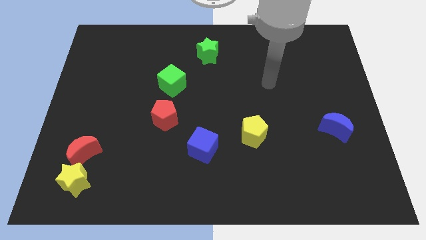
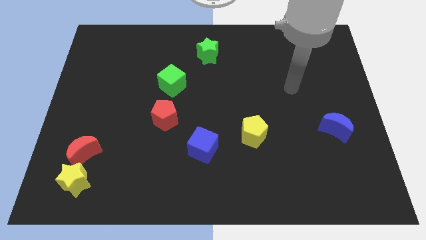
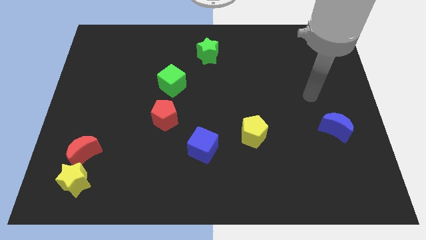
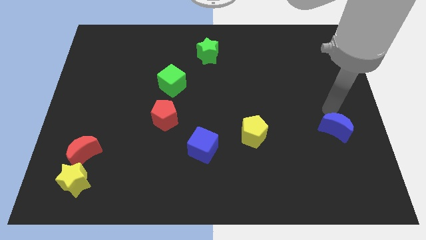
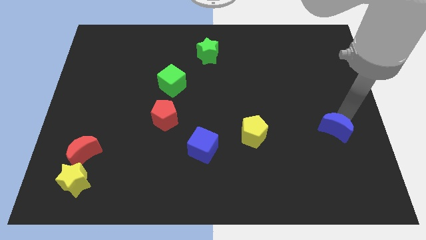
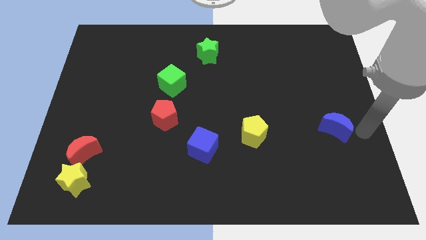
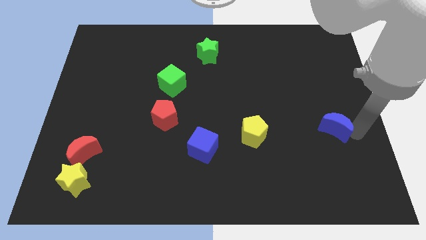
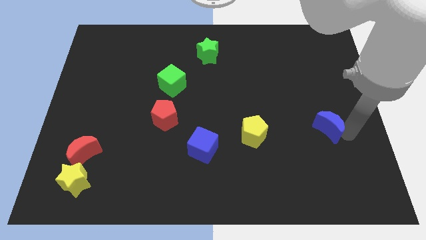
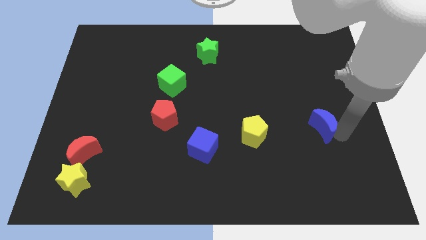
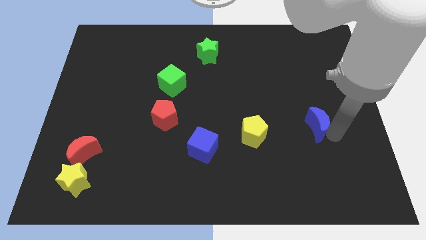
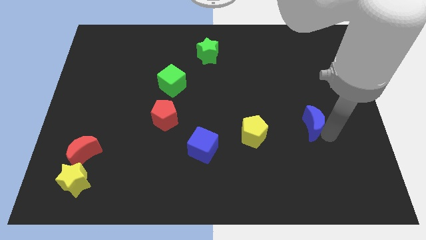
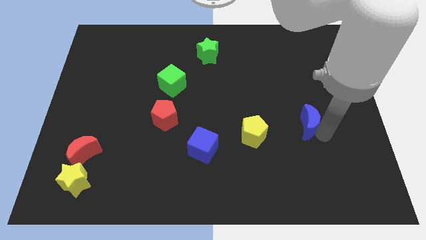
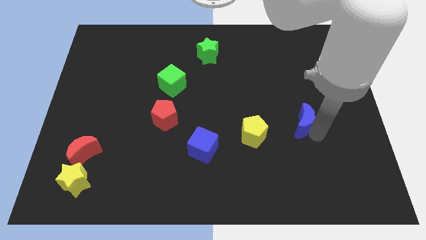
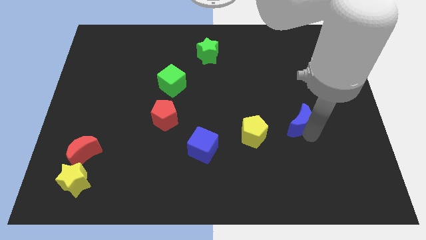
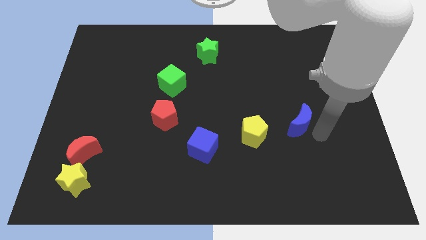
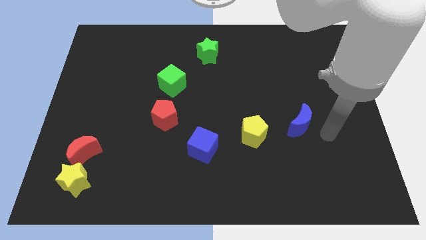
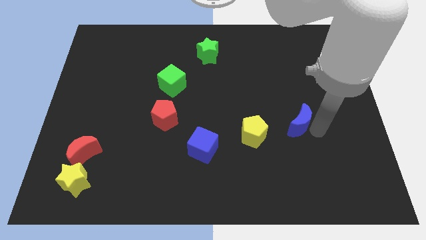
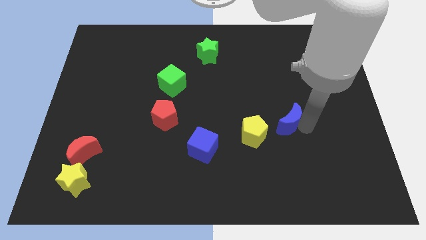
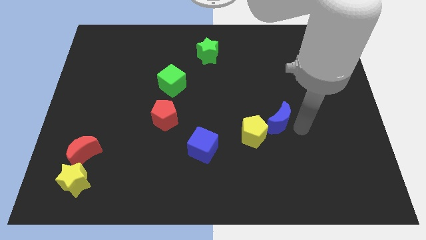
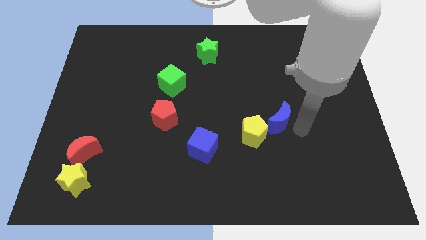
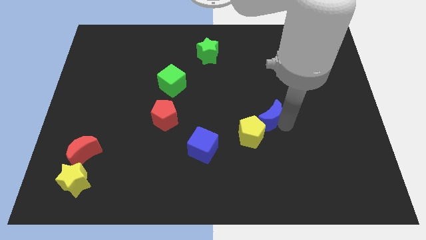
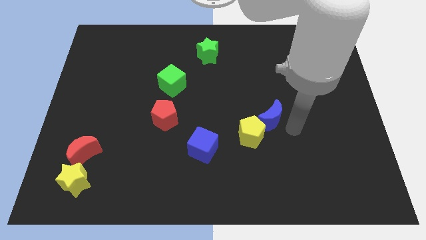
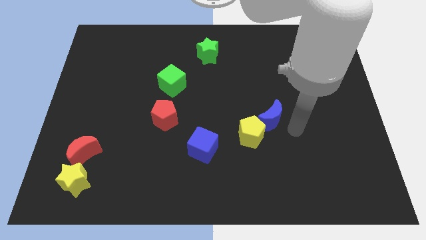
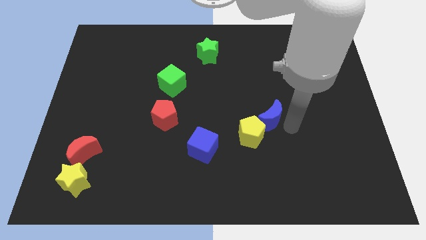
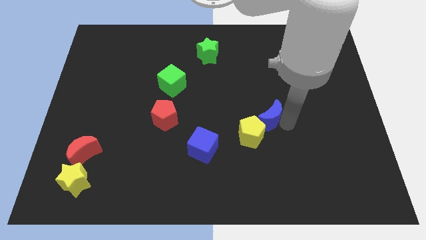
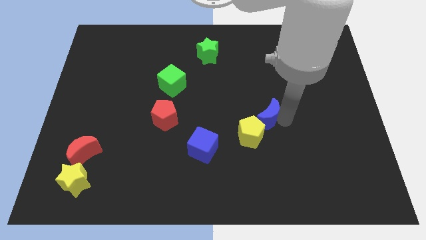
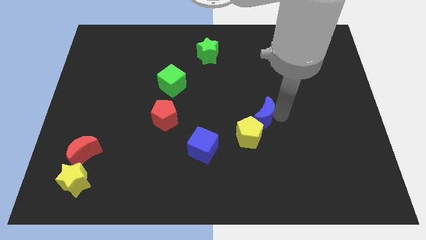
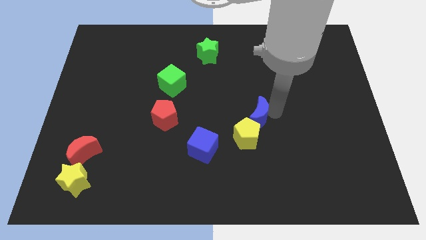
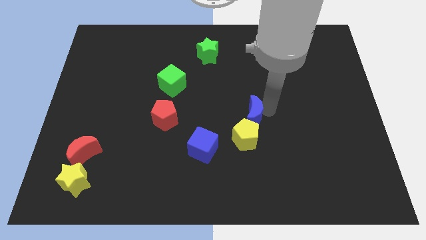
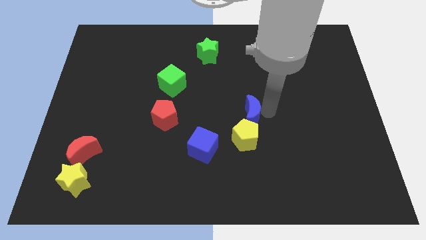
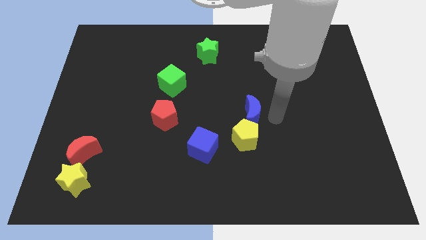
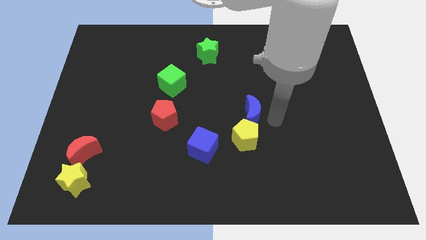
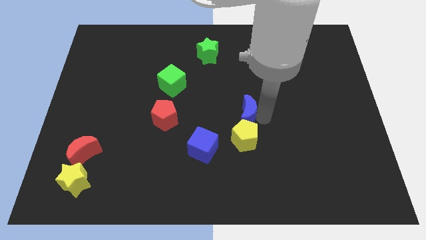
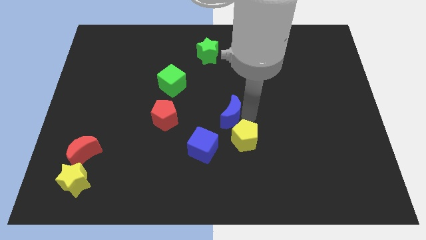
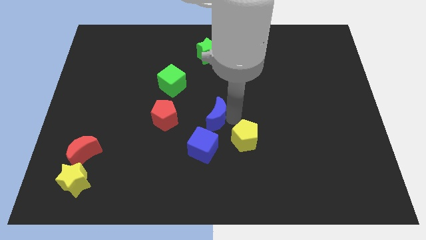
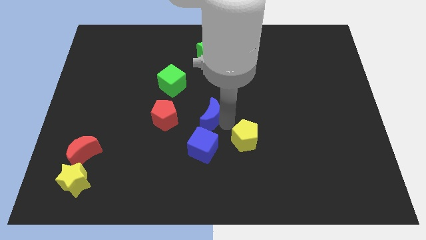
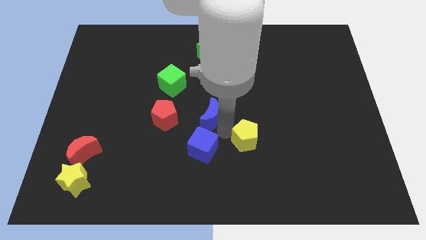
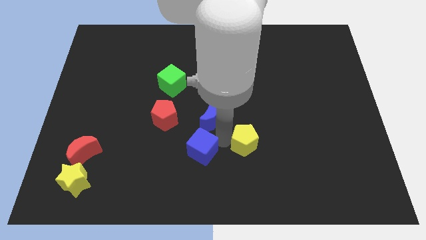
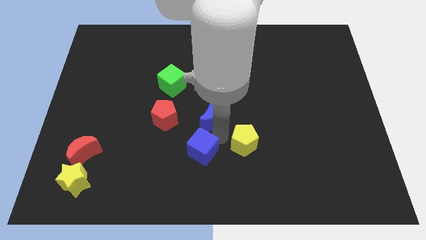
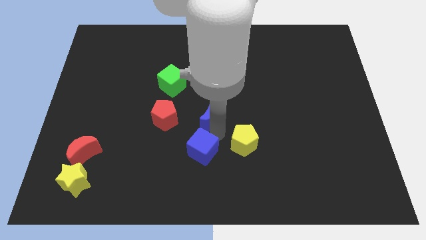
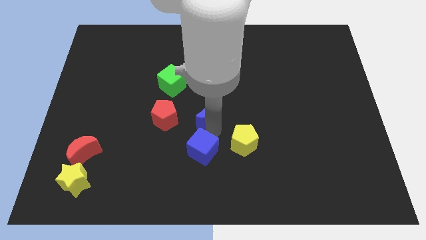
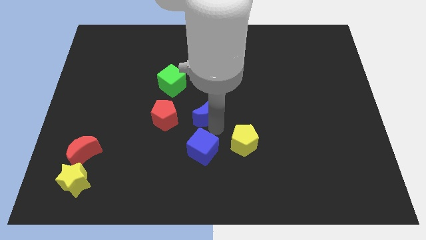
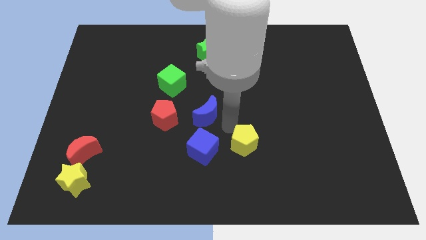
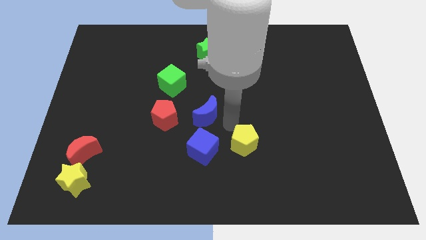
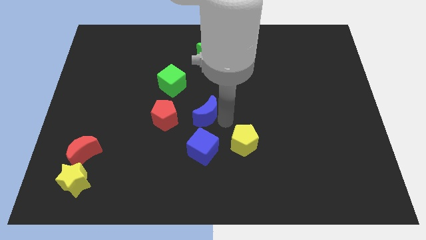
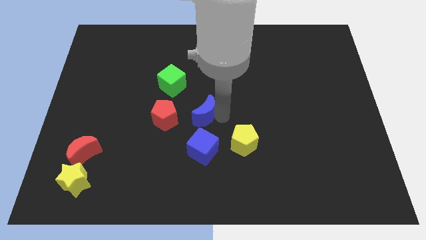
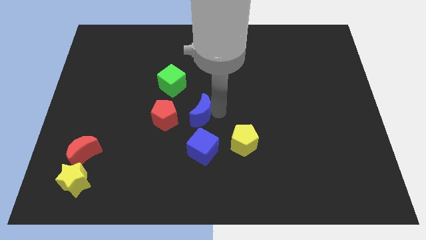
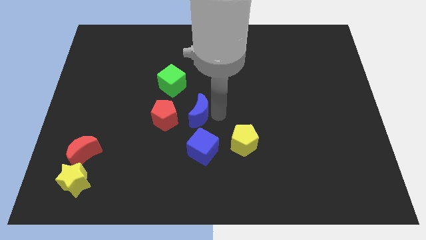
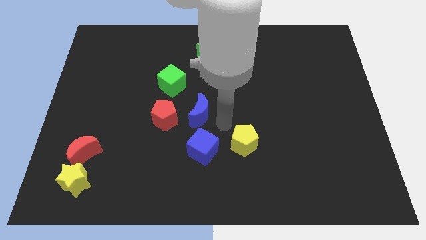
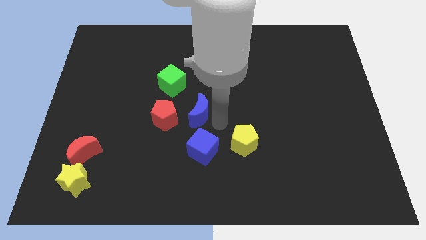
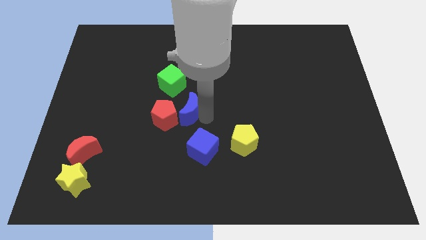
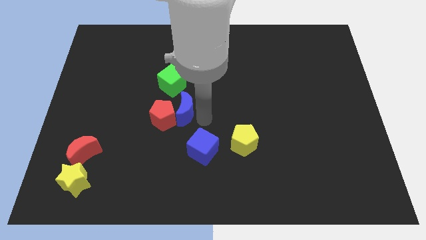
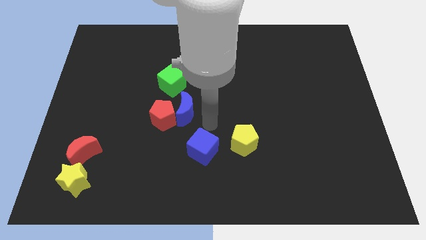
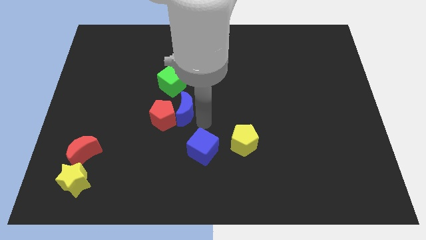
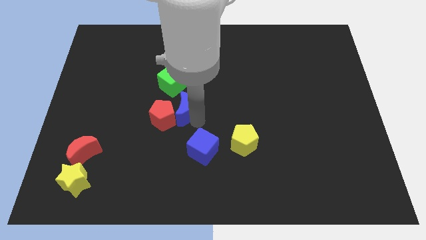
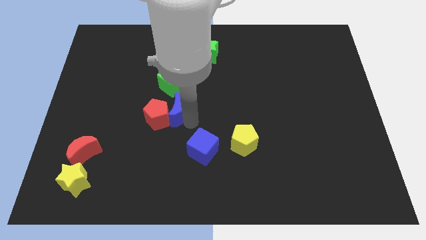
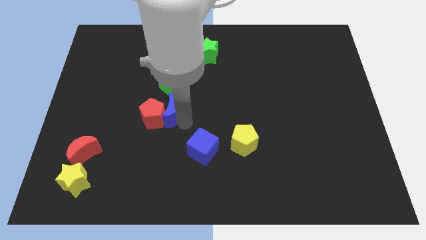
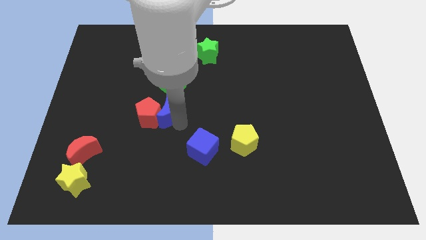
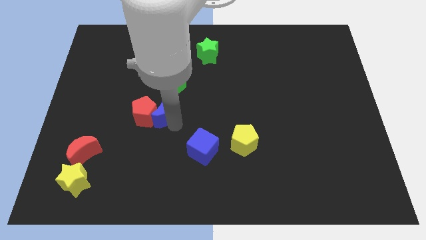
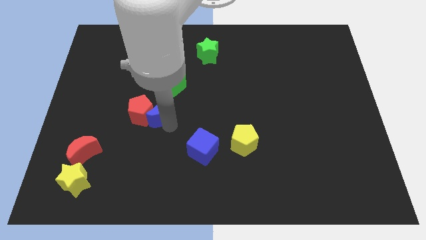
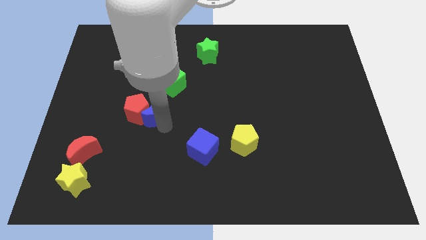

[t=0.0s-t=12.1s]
slide the blue moon to the bottom left side of the green cube
